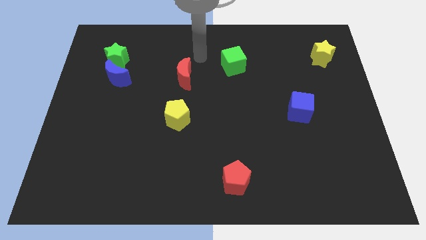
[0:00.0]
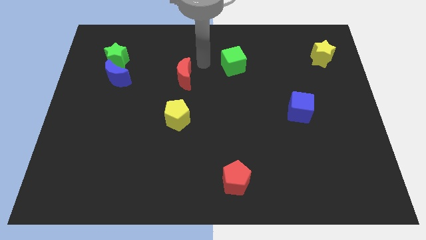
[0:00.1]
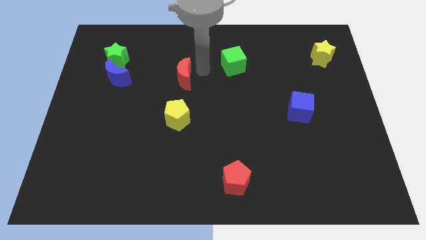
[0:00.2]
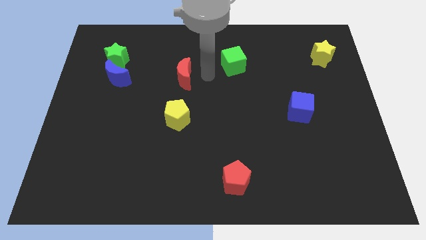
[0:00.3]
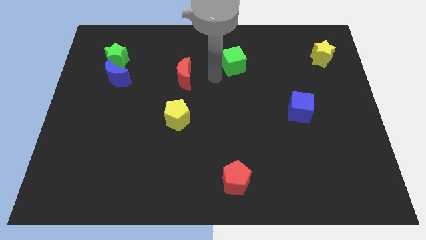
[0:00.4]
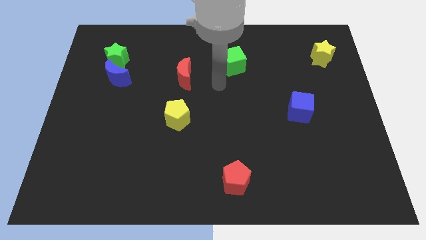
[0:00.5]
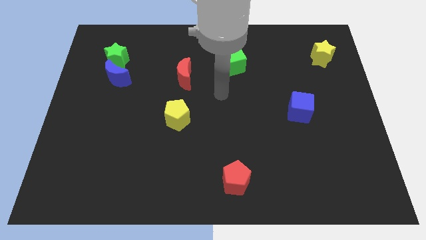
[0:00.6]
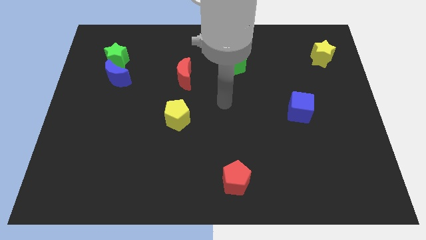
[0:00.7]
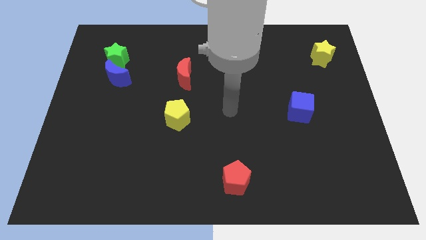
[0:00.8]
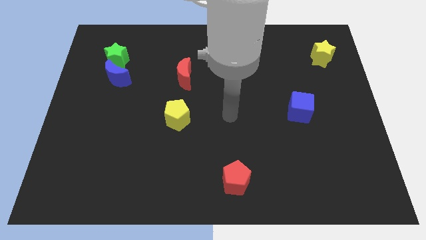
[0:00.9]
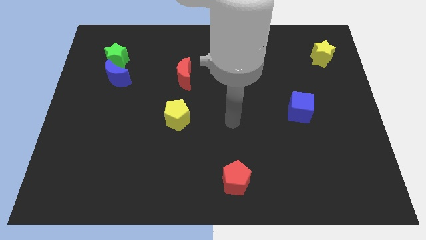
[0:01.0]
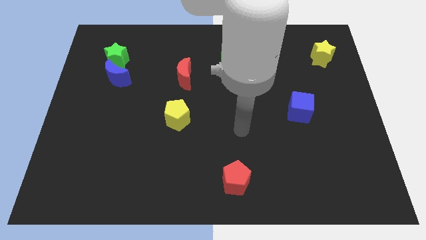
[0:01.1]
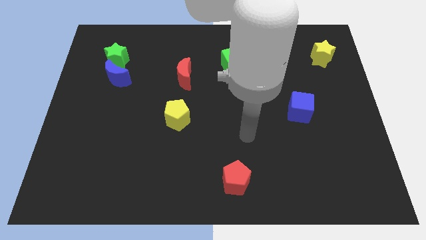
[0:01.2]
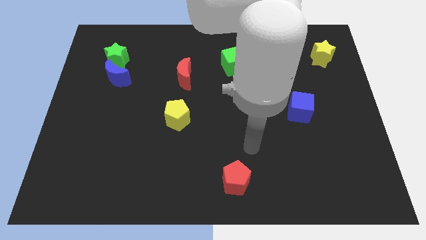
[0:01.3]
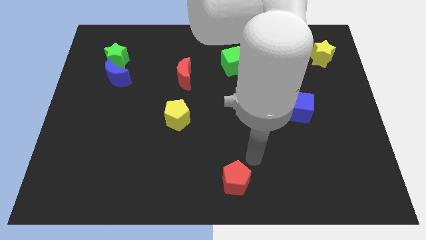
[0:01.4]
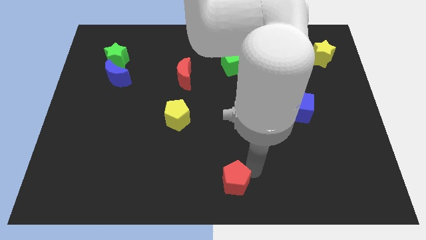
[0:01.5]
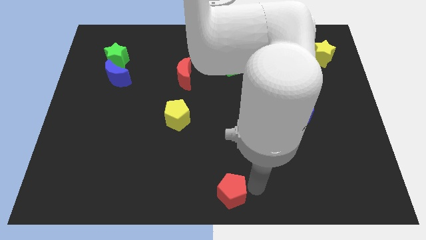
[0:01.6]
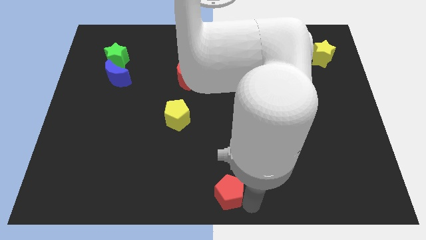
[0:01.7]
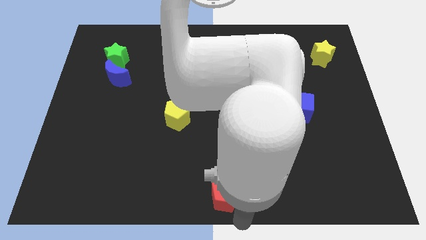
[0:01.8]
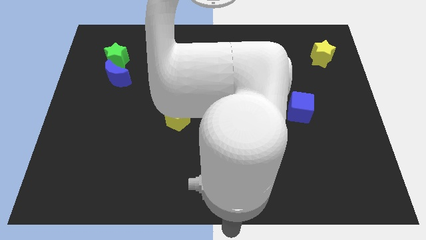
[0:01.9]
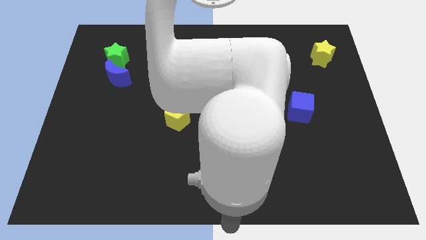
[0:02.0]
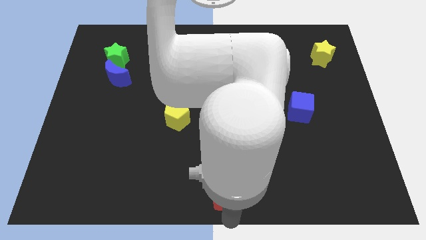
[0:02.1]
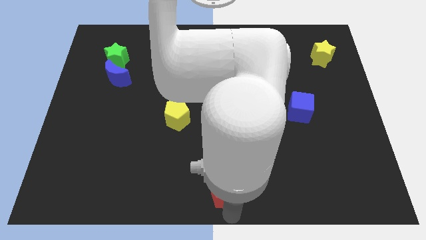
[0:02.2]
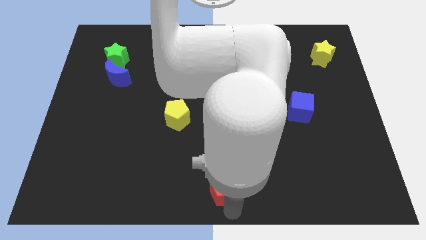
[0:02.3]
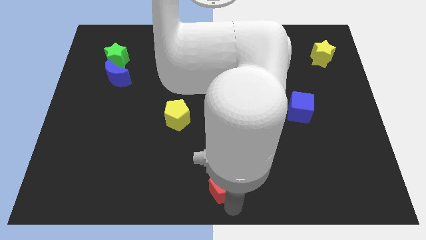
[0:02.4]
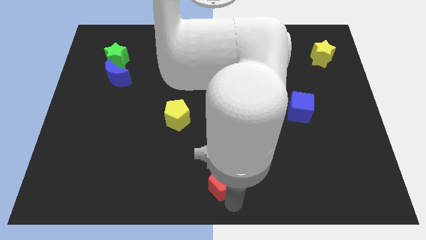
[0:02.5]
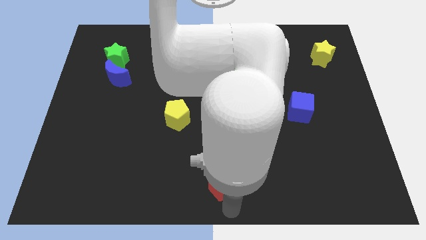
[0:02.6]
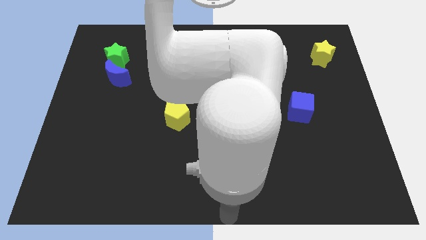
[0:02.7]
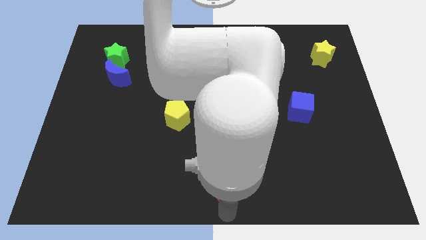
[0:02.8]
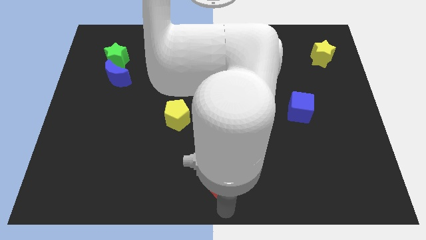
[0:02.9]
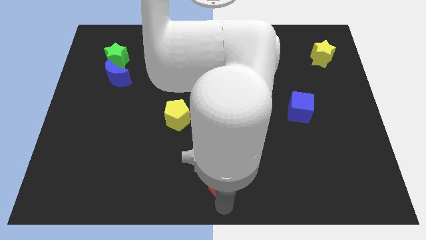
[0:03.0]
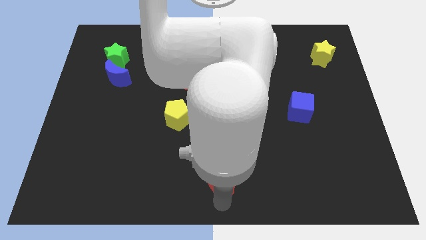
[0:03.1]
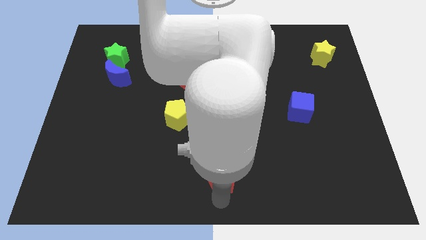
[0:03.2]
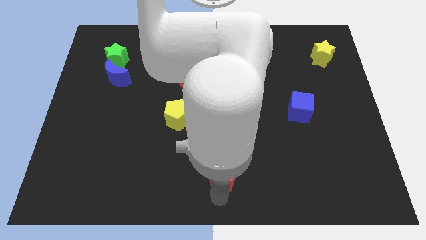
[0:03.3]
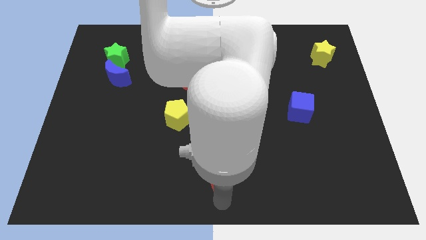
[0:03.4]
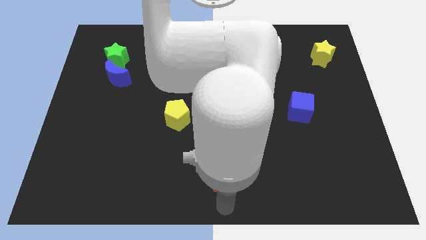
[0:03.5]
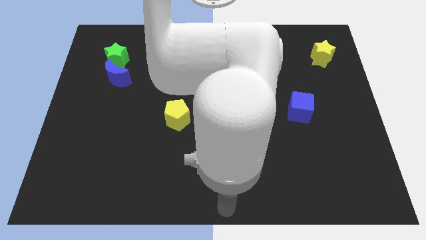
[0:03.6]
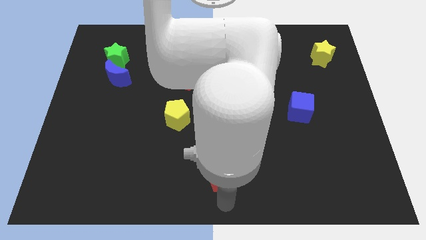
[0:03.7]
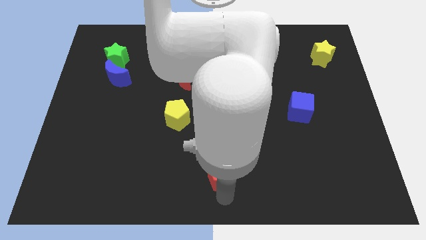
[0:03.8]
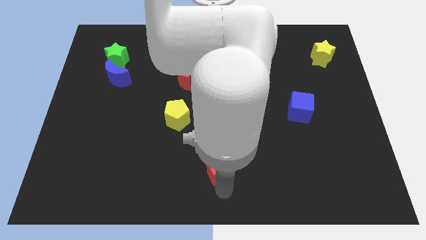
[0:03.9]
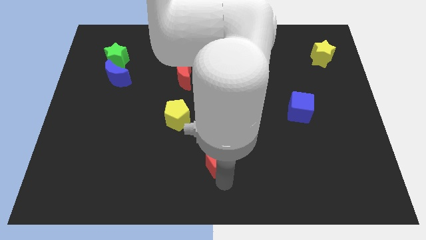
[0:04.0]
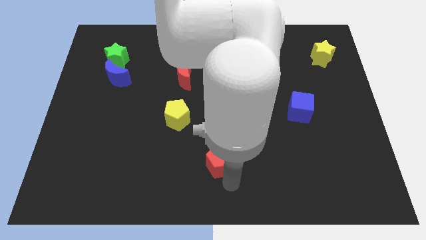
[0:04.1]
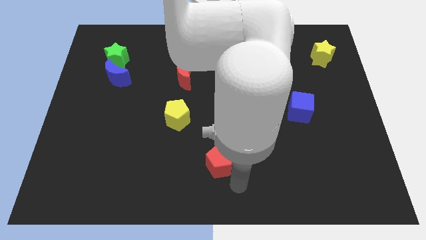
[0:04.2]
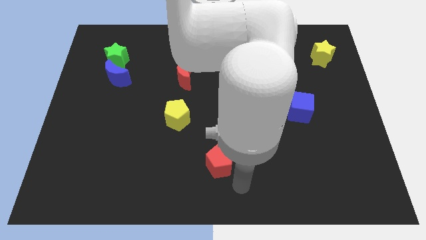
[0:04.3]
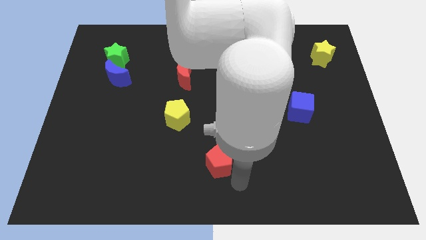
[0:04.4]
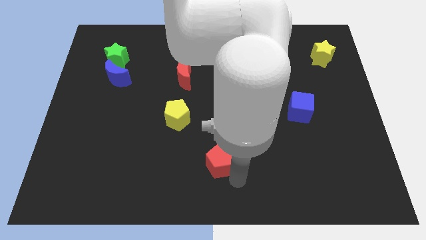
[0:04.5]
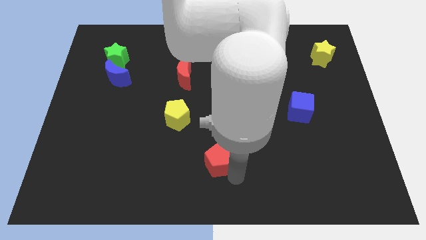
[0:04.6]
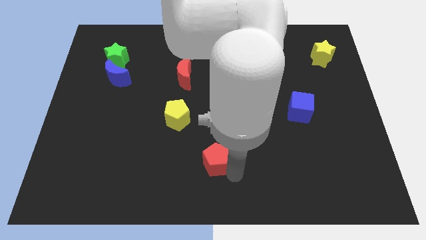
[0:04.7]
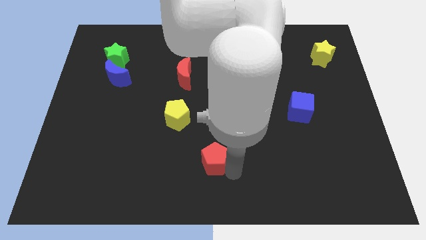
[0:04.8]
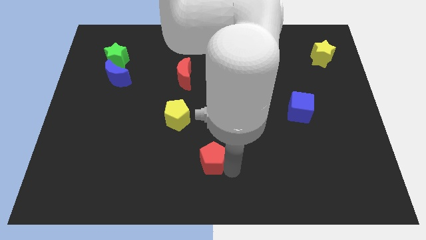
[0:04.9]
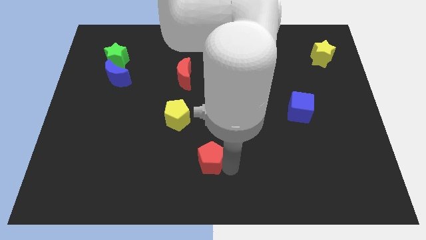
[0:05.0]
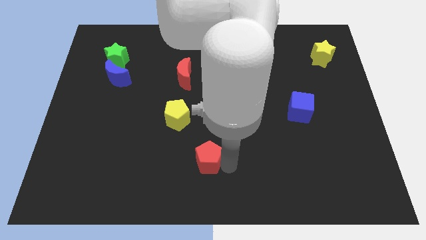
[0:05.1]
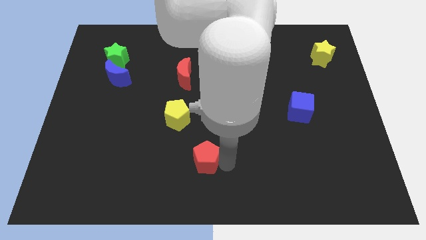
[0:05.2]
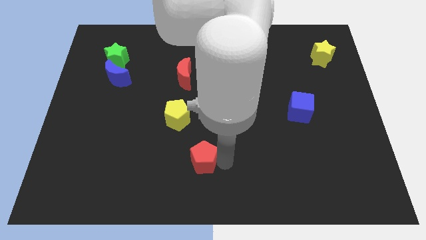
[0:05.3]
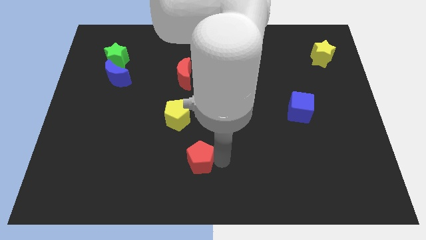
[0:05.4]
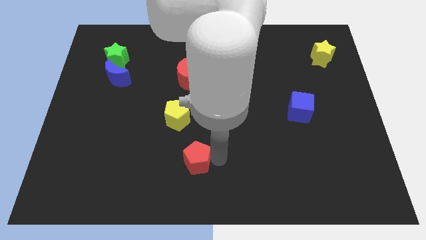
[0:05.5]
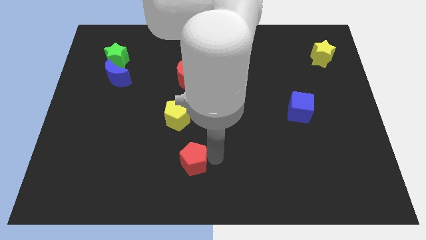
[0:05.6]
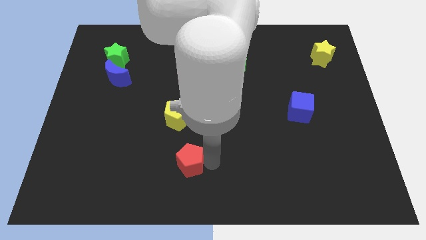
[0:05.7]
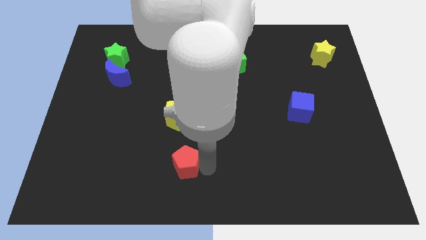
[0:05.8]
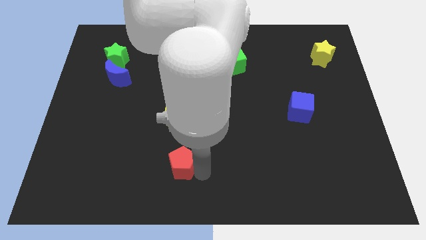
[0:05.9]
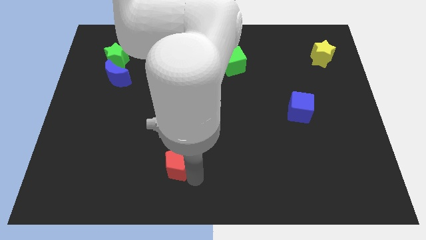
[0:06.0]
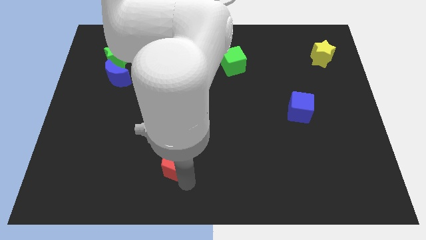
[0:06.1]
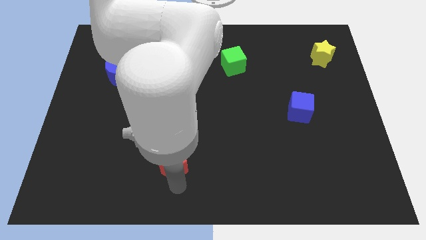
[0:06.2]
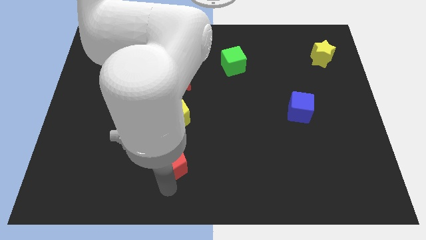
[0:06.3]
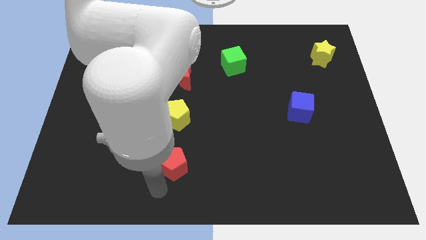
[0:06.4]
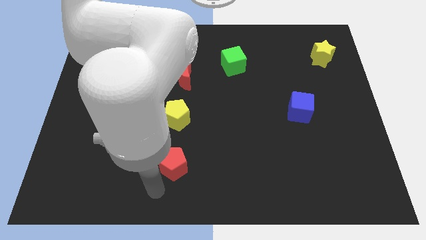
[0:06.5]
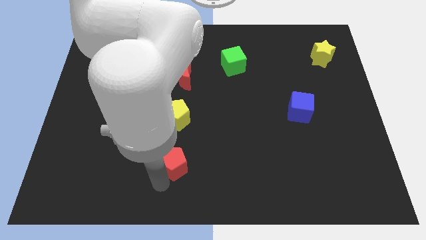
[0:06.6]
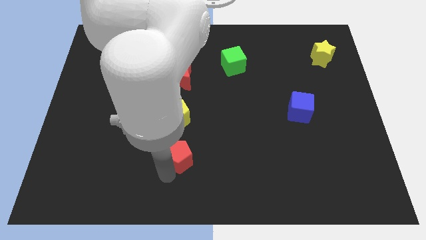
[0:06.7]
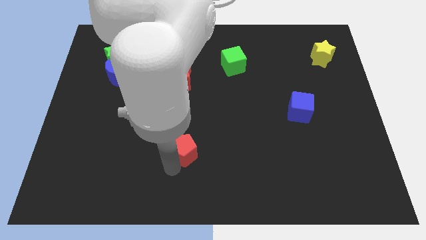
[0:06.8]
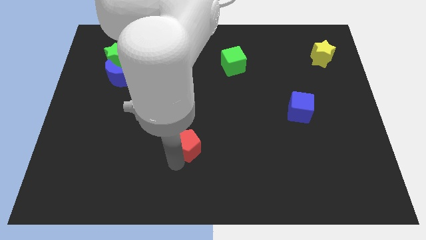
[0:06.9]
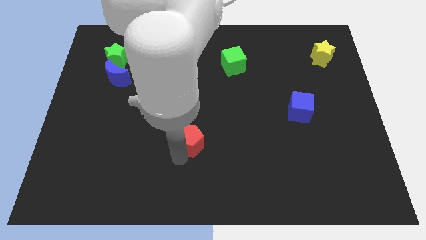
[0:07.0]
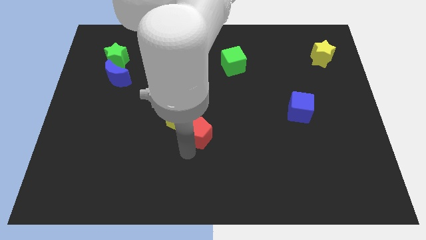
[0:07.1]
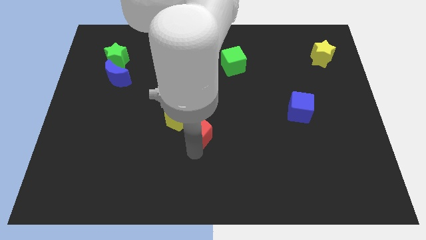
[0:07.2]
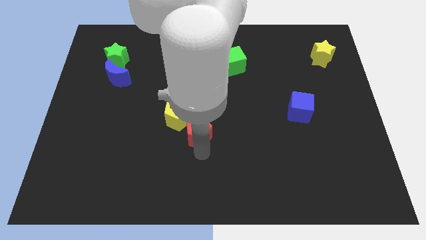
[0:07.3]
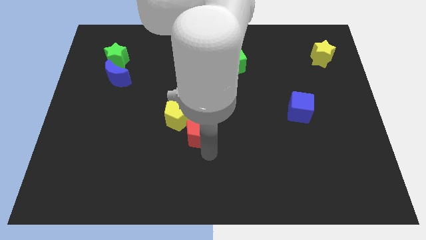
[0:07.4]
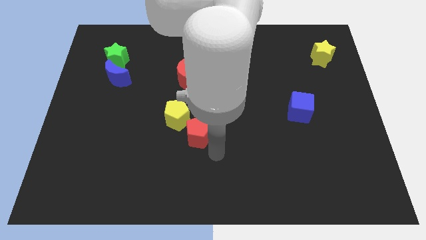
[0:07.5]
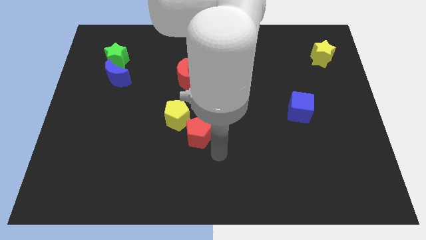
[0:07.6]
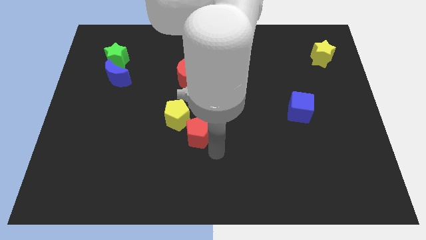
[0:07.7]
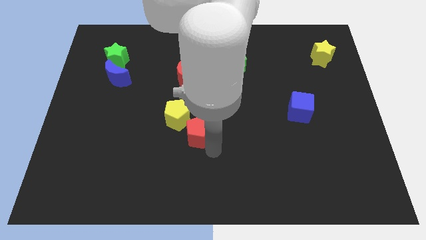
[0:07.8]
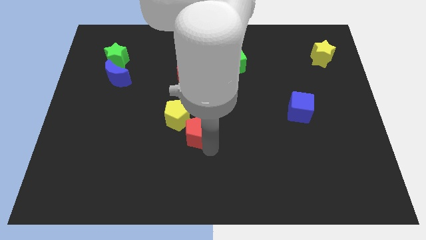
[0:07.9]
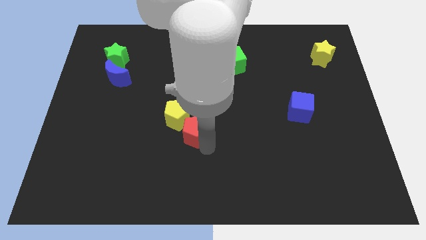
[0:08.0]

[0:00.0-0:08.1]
slide the red pentagon towards the yellow pentagon
